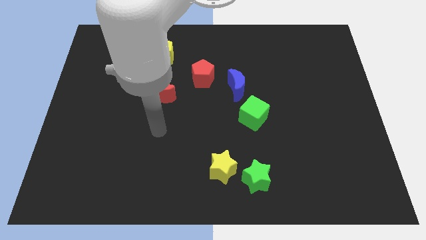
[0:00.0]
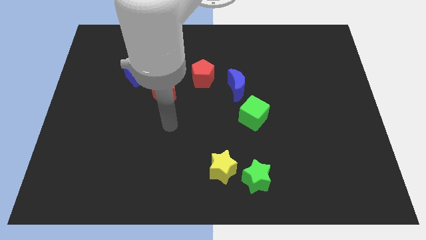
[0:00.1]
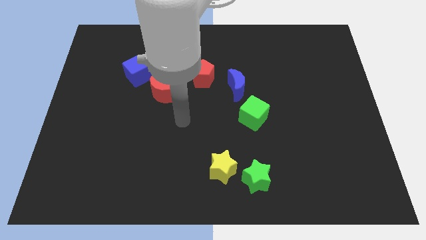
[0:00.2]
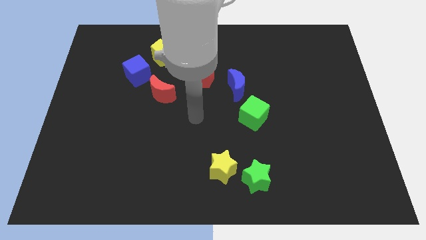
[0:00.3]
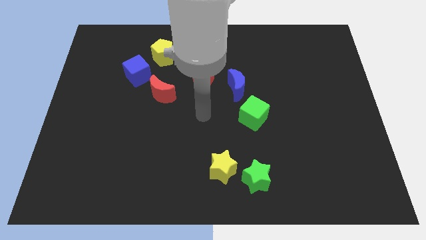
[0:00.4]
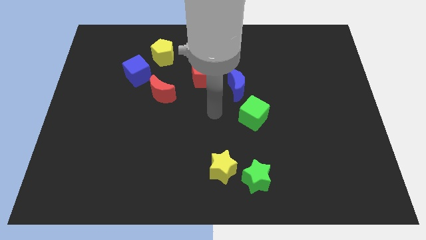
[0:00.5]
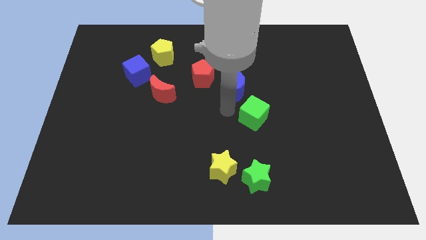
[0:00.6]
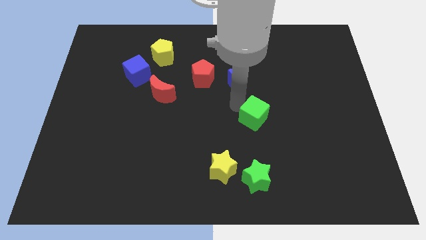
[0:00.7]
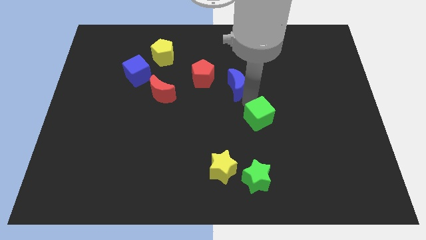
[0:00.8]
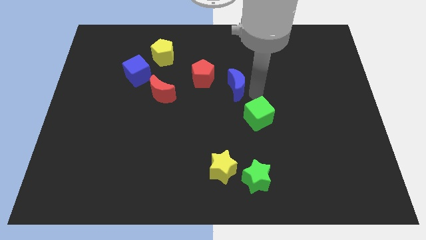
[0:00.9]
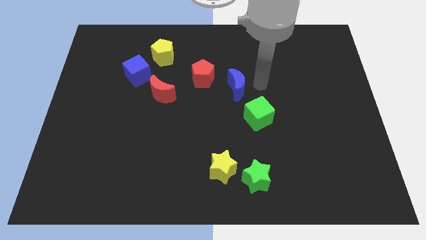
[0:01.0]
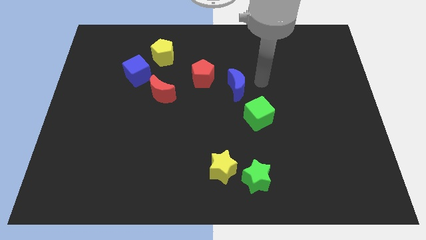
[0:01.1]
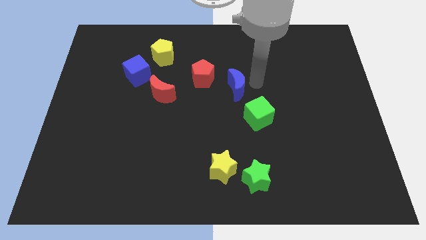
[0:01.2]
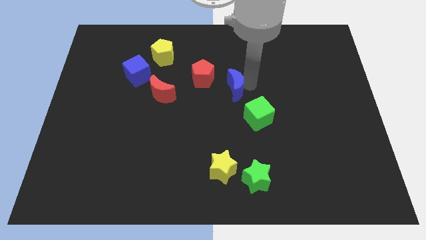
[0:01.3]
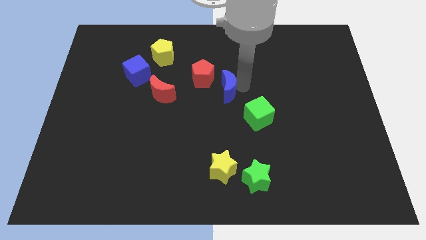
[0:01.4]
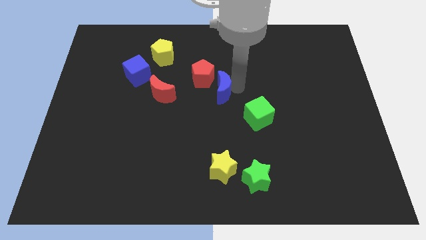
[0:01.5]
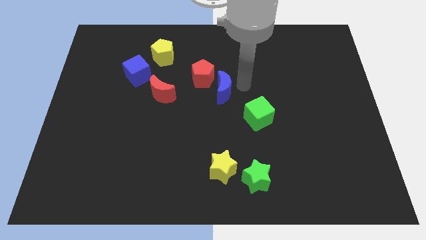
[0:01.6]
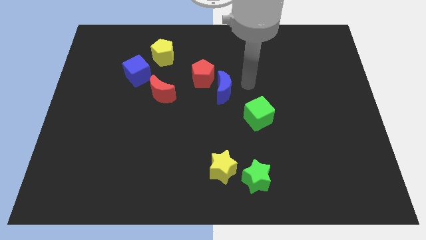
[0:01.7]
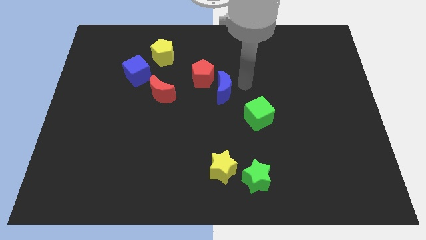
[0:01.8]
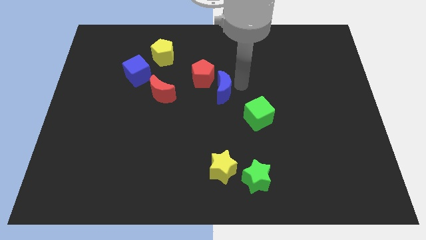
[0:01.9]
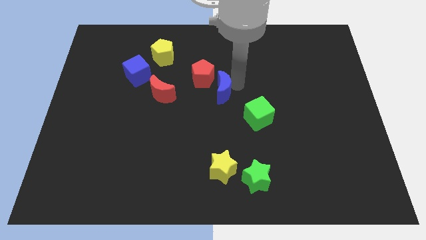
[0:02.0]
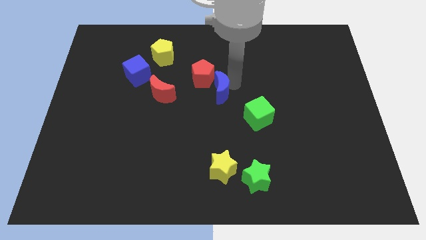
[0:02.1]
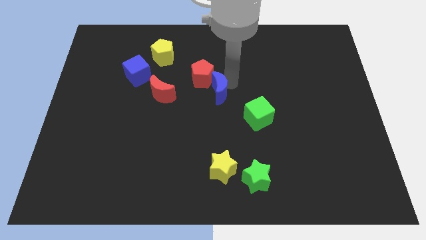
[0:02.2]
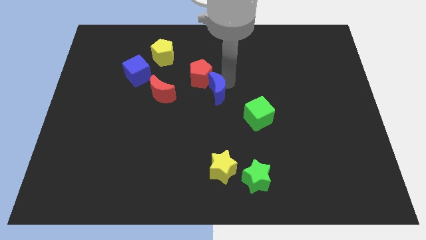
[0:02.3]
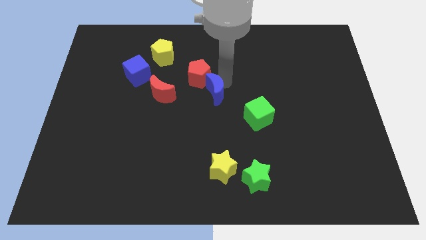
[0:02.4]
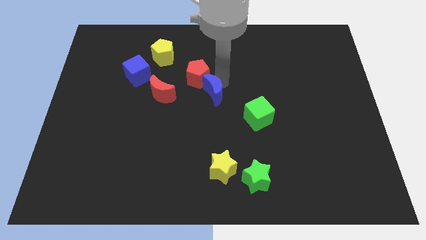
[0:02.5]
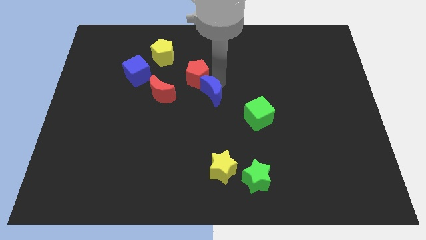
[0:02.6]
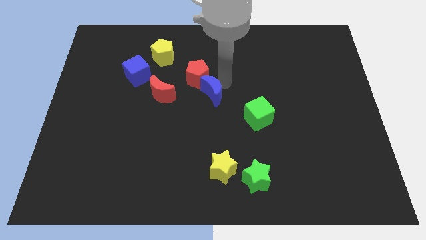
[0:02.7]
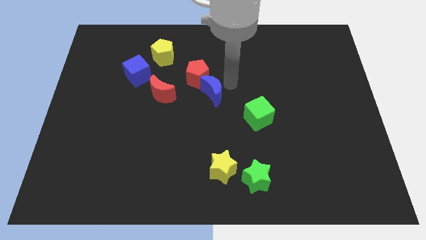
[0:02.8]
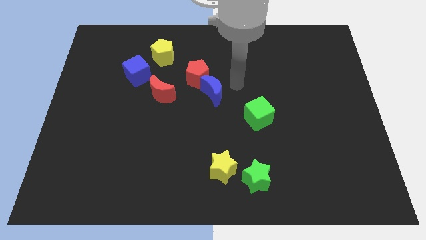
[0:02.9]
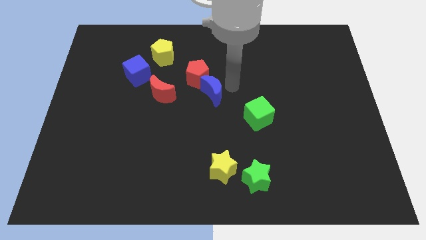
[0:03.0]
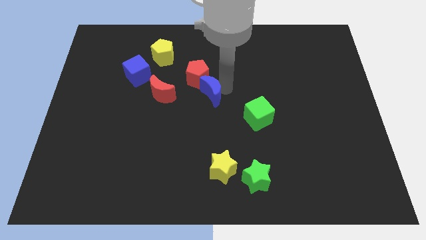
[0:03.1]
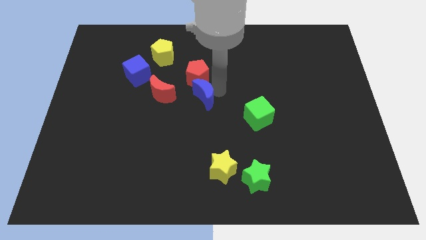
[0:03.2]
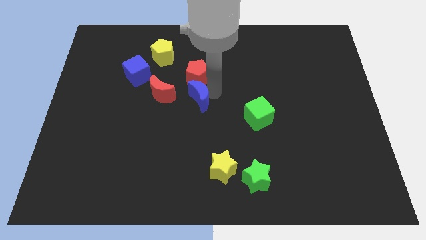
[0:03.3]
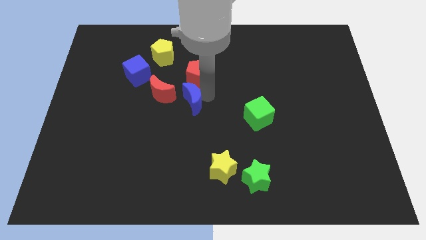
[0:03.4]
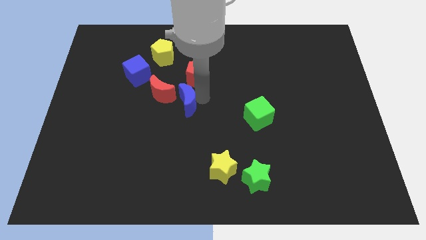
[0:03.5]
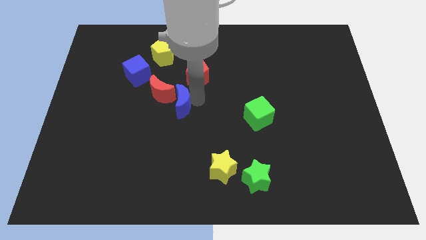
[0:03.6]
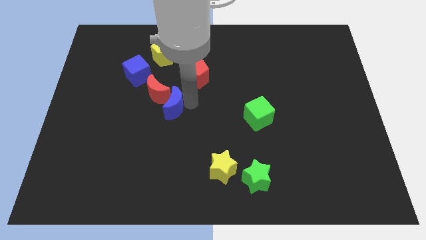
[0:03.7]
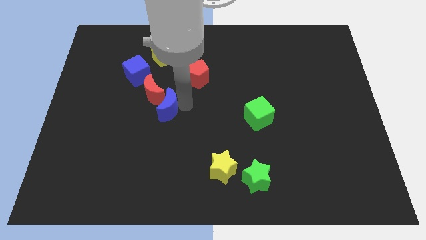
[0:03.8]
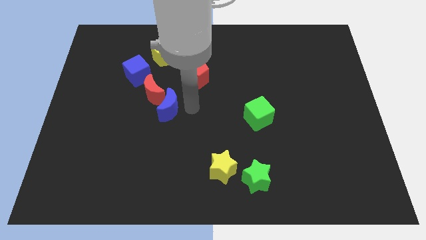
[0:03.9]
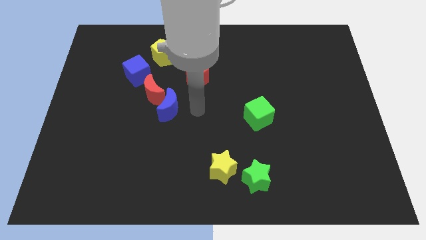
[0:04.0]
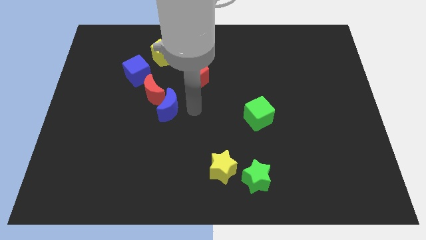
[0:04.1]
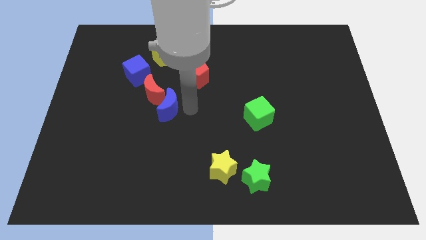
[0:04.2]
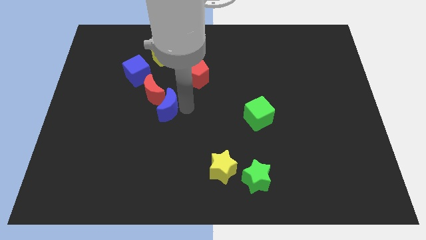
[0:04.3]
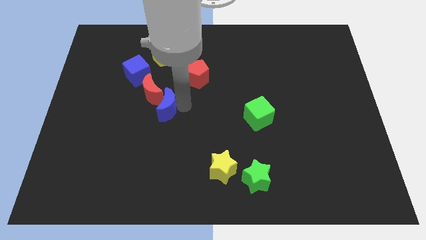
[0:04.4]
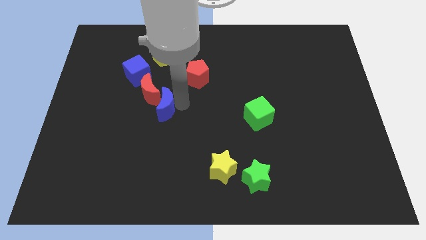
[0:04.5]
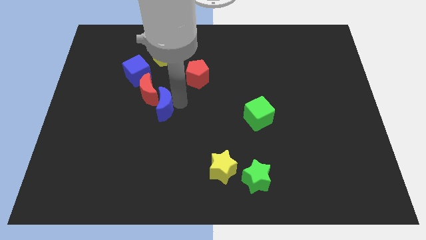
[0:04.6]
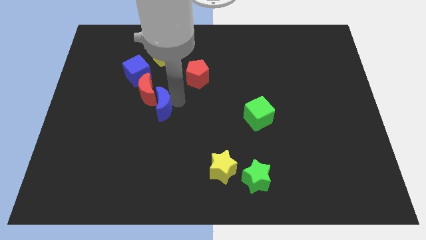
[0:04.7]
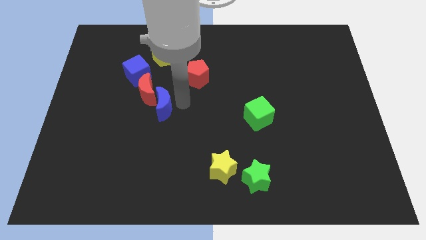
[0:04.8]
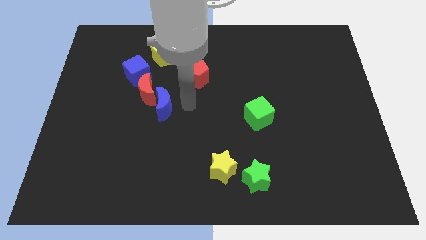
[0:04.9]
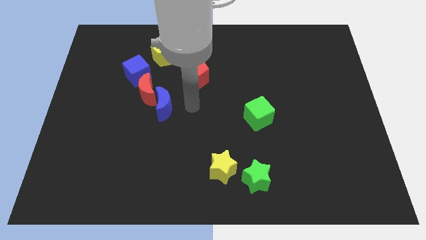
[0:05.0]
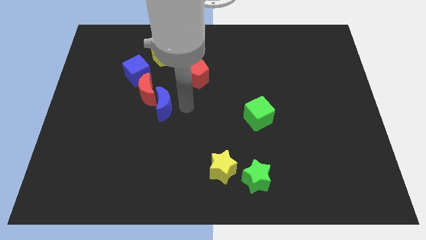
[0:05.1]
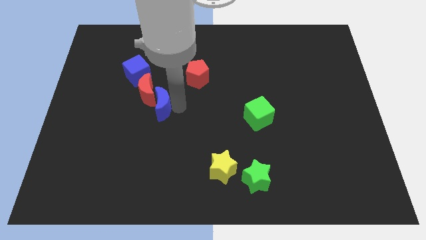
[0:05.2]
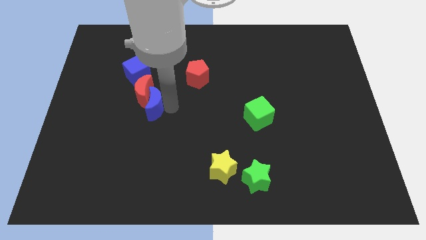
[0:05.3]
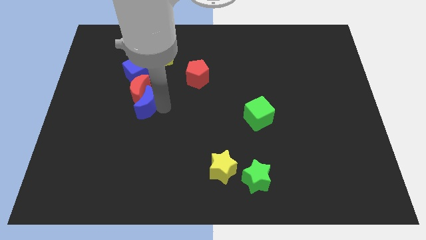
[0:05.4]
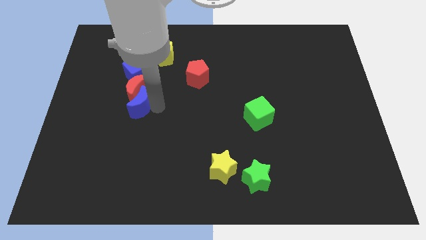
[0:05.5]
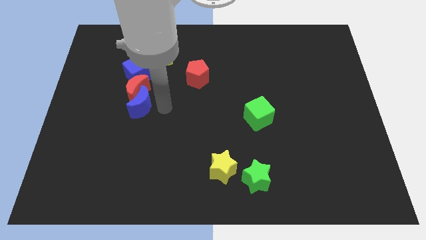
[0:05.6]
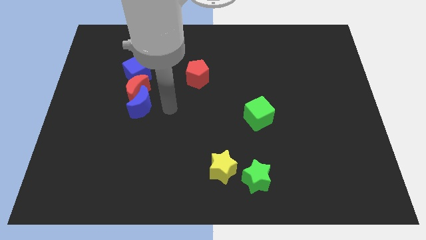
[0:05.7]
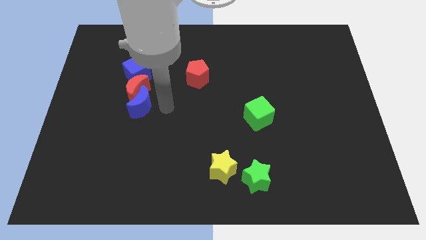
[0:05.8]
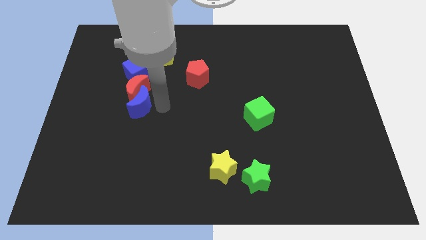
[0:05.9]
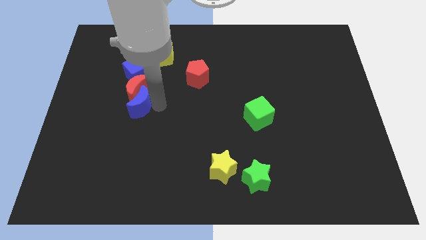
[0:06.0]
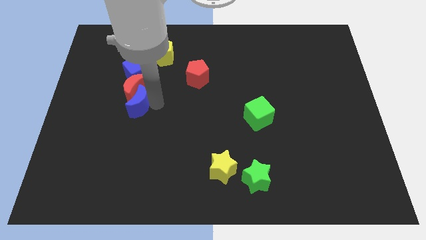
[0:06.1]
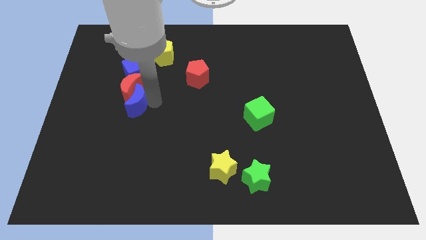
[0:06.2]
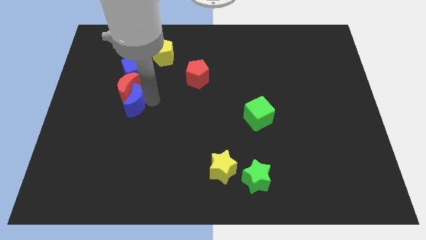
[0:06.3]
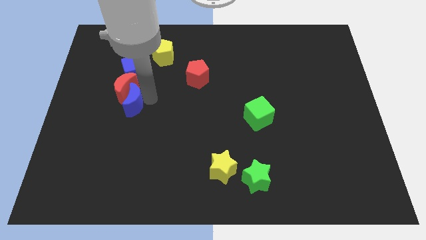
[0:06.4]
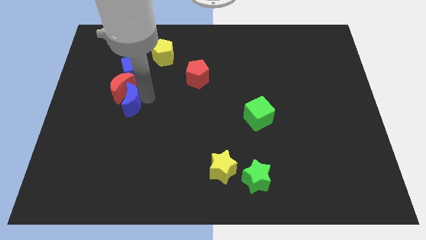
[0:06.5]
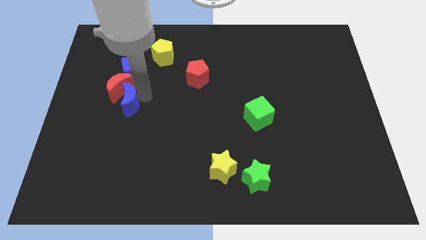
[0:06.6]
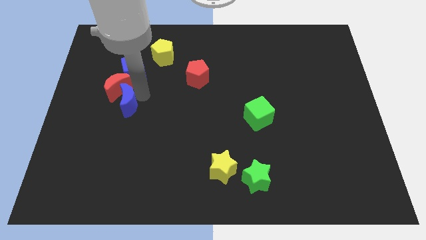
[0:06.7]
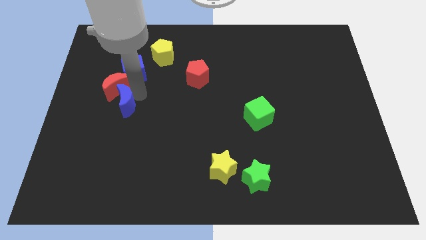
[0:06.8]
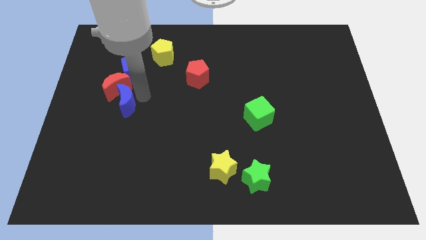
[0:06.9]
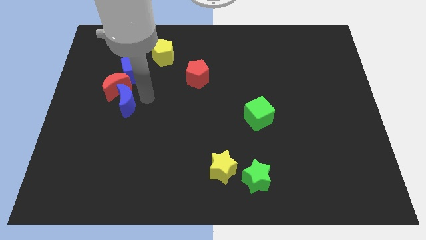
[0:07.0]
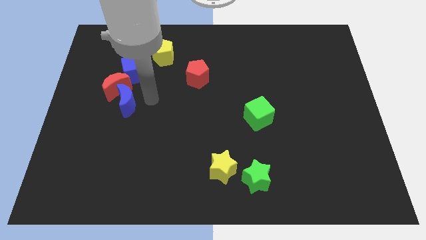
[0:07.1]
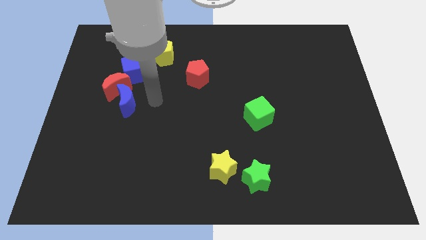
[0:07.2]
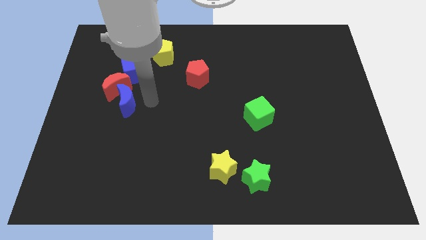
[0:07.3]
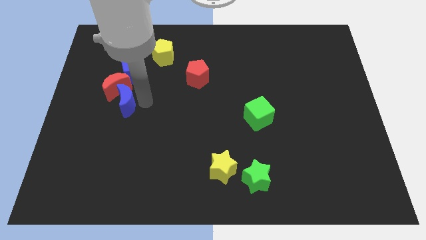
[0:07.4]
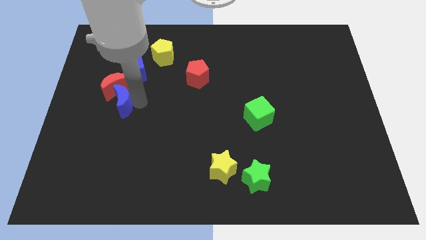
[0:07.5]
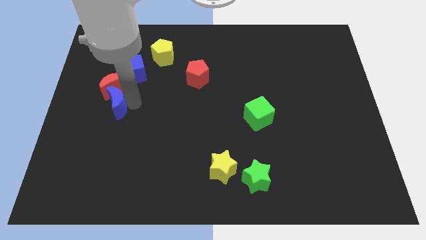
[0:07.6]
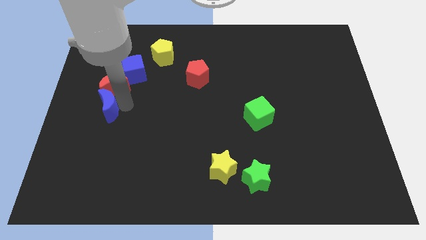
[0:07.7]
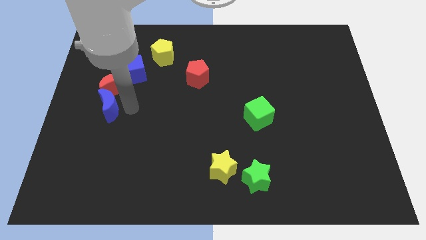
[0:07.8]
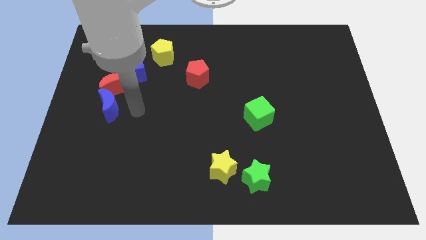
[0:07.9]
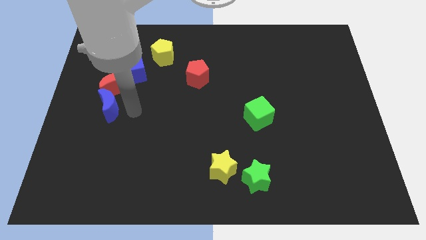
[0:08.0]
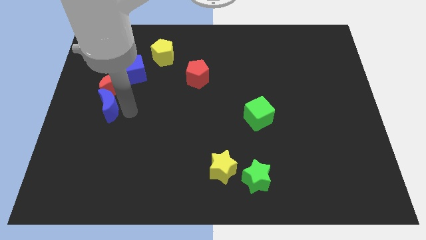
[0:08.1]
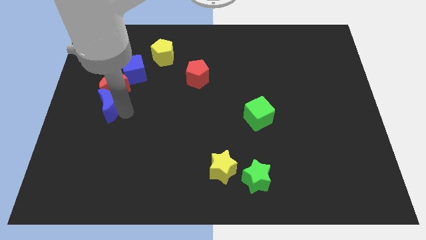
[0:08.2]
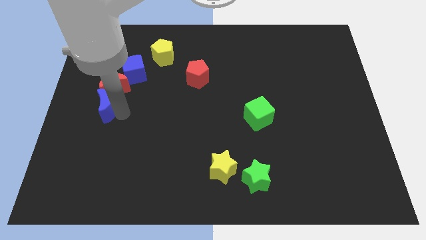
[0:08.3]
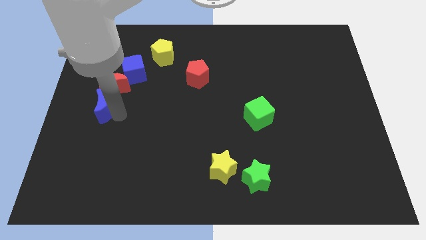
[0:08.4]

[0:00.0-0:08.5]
push the blue moon to the left side
